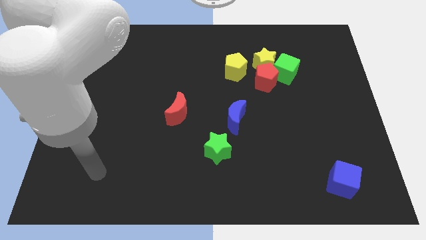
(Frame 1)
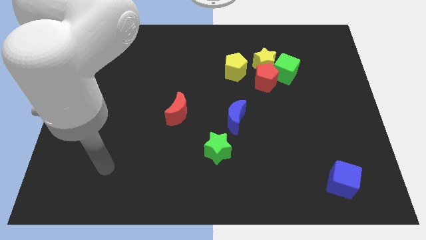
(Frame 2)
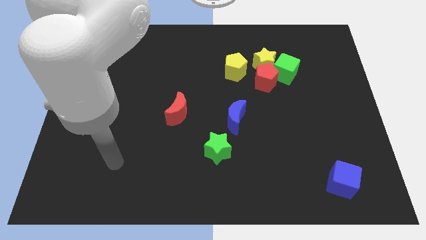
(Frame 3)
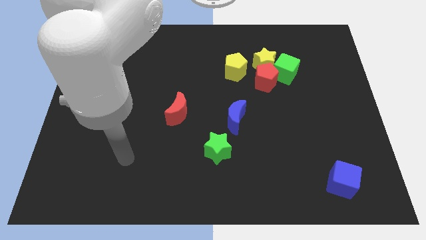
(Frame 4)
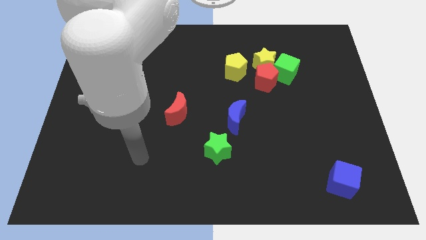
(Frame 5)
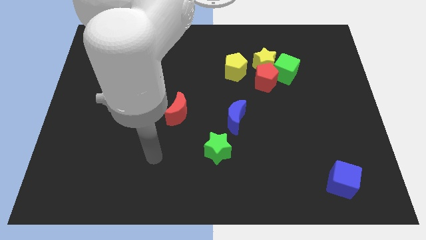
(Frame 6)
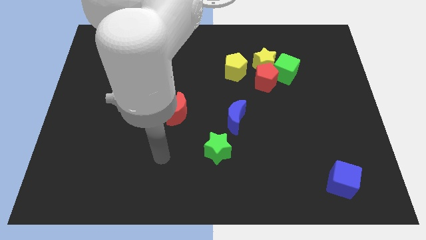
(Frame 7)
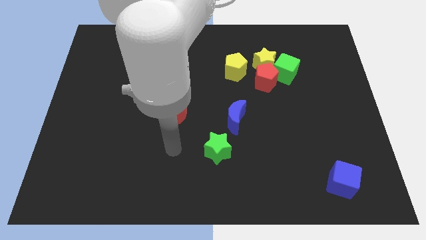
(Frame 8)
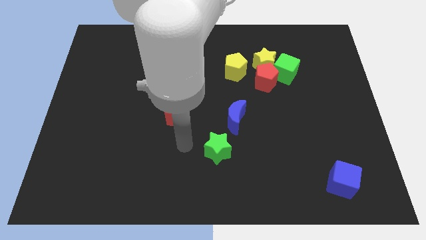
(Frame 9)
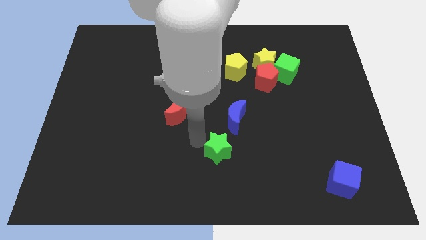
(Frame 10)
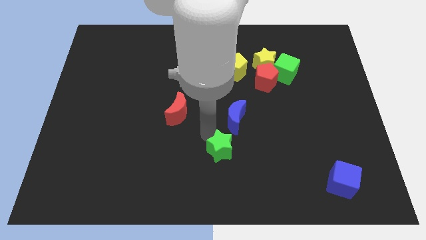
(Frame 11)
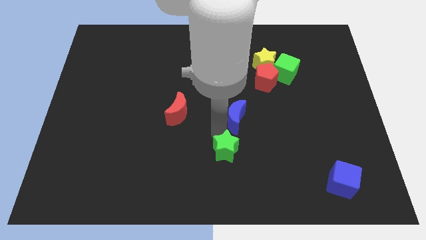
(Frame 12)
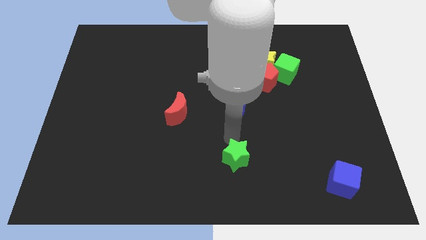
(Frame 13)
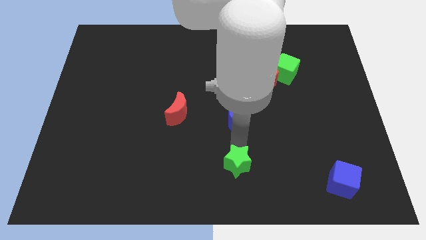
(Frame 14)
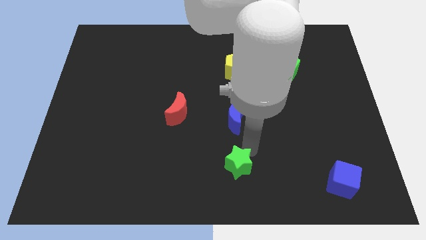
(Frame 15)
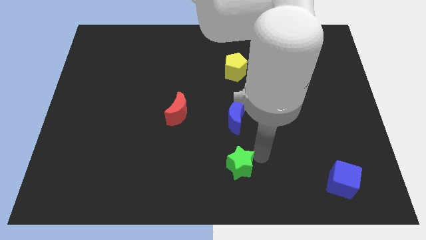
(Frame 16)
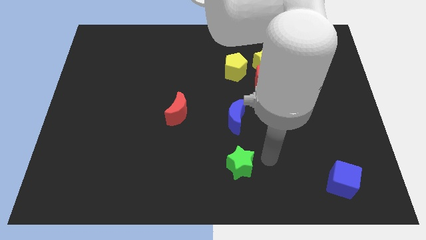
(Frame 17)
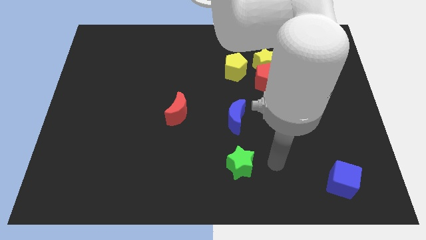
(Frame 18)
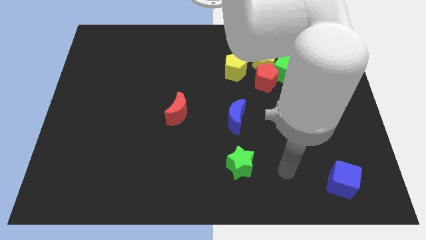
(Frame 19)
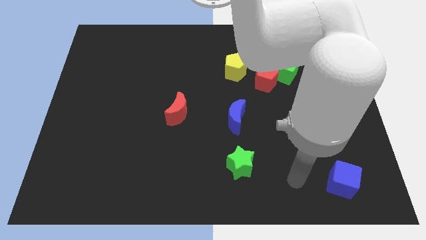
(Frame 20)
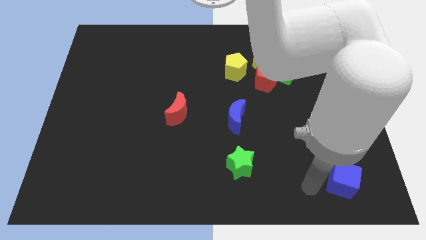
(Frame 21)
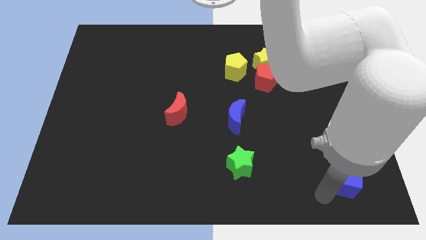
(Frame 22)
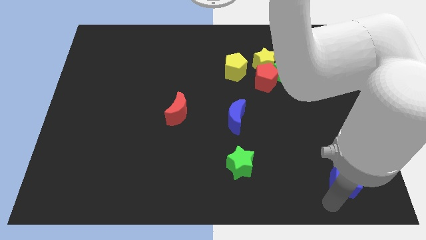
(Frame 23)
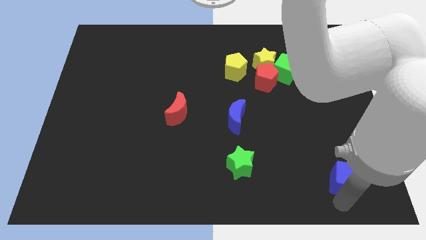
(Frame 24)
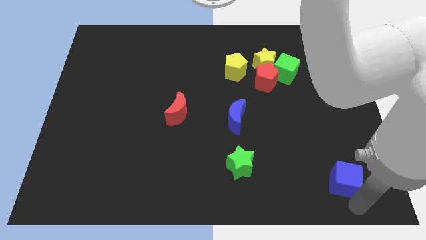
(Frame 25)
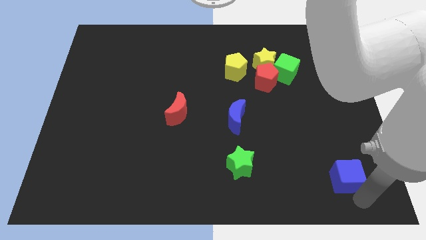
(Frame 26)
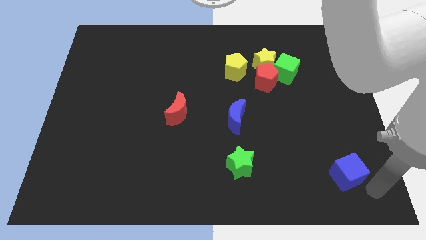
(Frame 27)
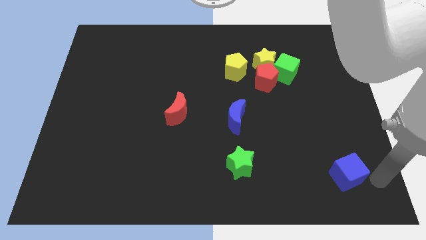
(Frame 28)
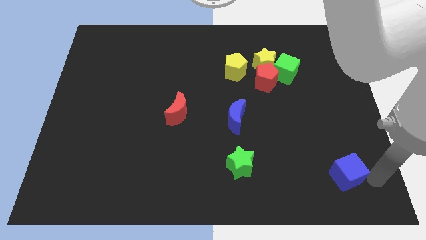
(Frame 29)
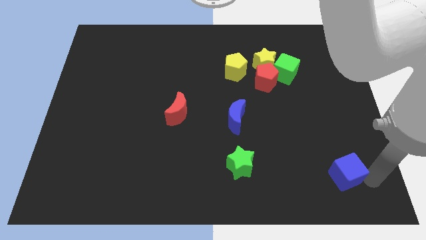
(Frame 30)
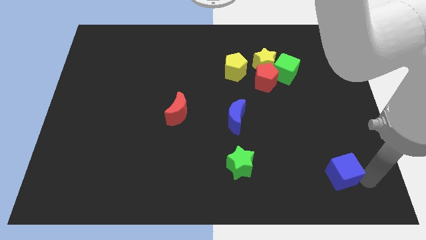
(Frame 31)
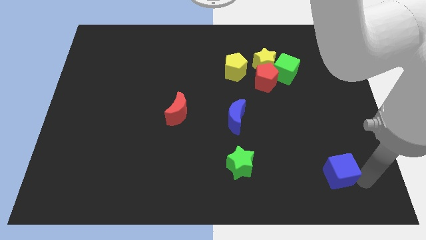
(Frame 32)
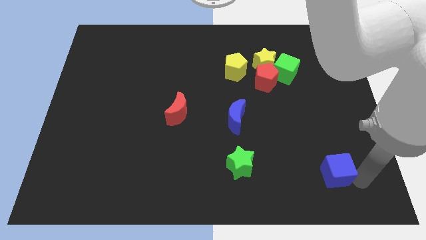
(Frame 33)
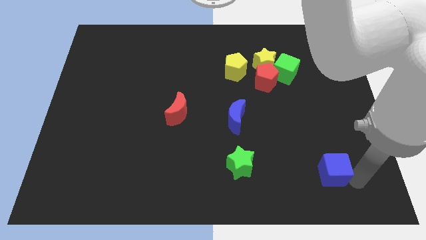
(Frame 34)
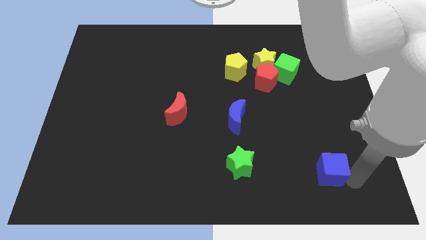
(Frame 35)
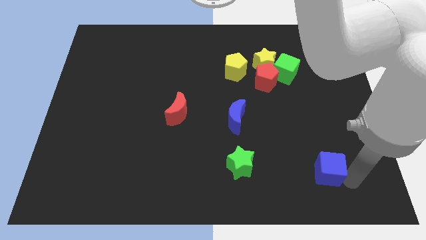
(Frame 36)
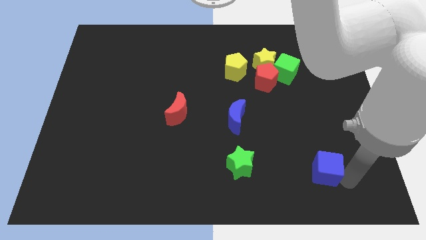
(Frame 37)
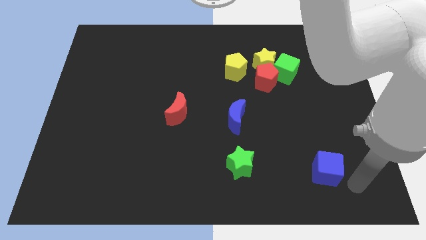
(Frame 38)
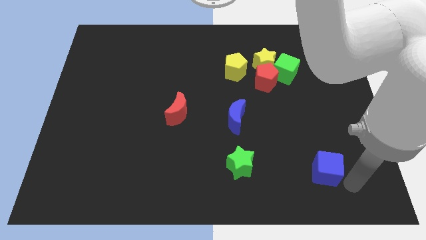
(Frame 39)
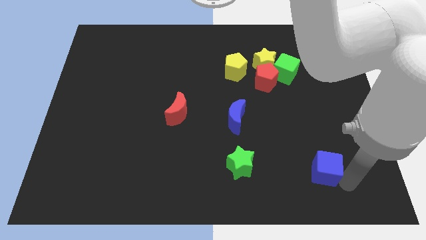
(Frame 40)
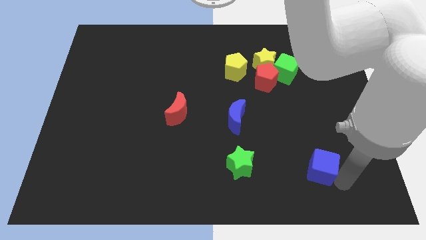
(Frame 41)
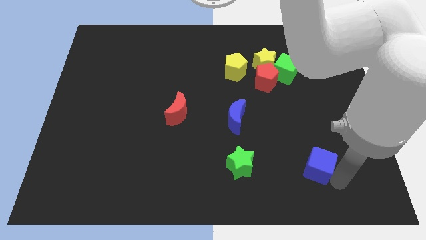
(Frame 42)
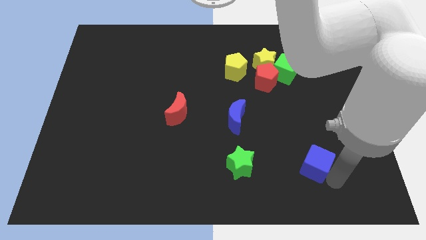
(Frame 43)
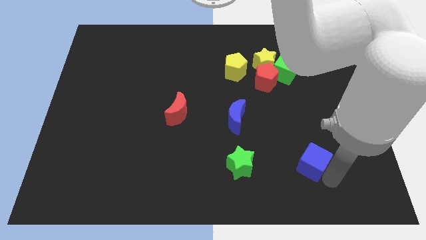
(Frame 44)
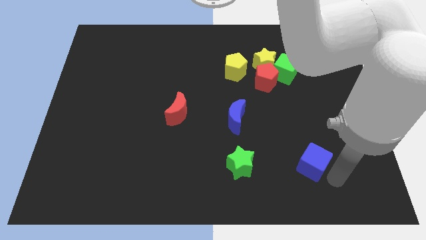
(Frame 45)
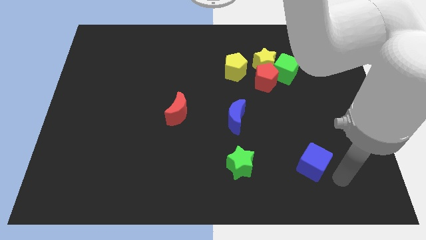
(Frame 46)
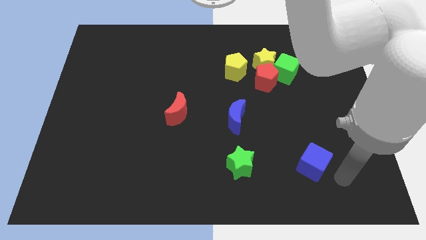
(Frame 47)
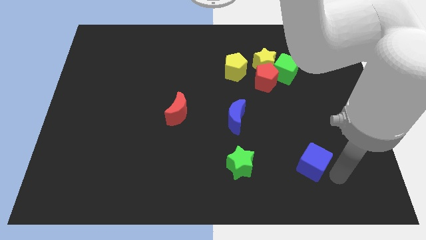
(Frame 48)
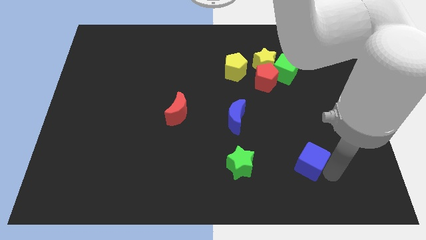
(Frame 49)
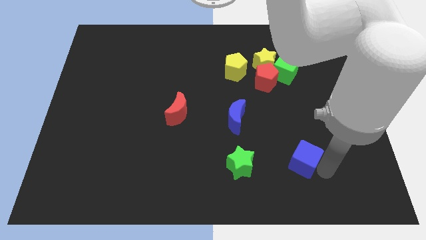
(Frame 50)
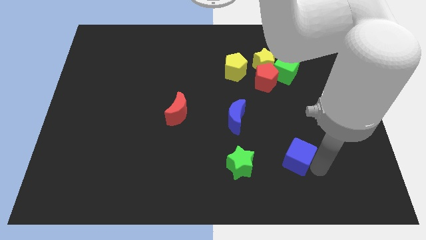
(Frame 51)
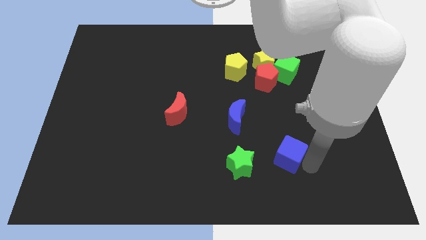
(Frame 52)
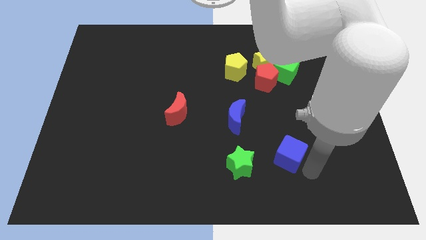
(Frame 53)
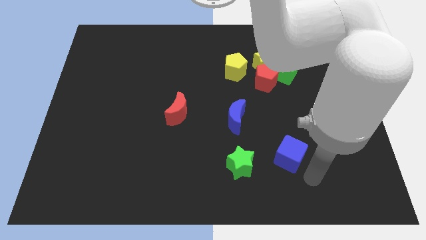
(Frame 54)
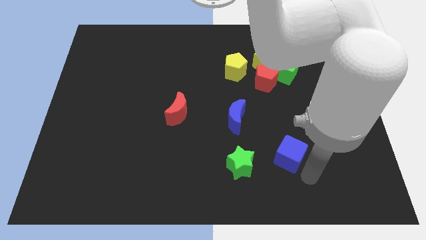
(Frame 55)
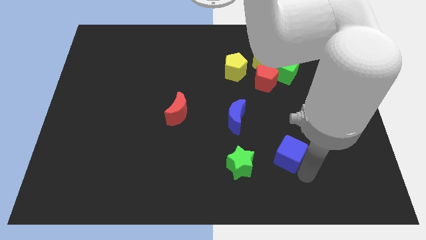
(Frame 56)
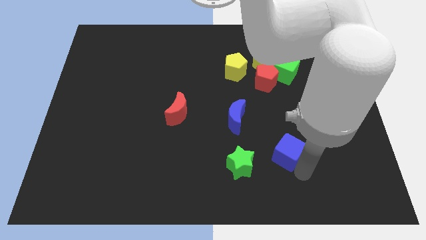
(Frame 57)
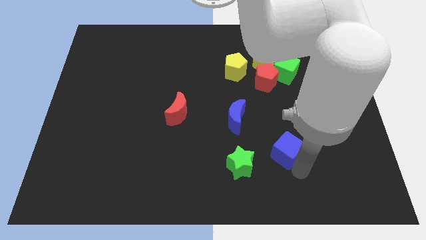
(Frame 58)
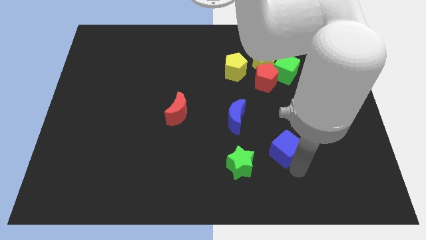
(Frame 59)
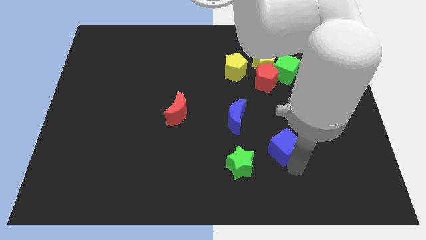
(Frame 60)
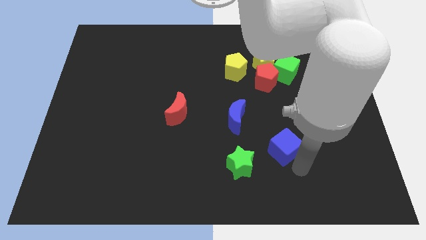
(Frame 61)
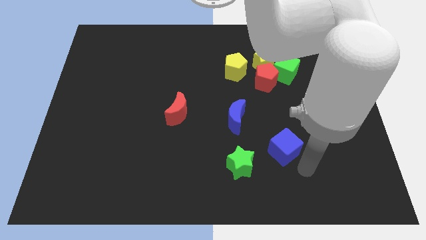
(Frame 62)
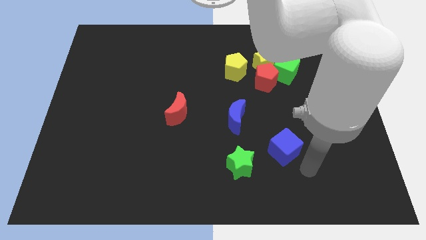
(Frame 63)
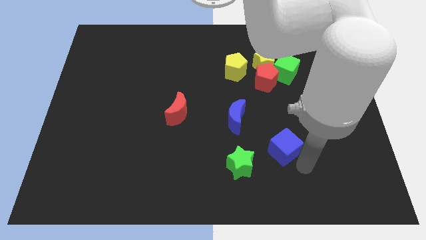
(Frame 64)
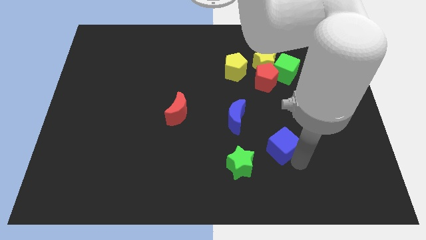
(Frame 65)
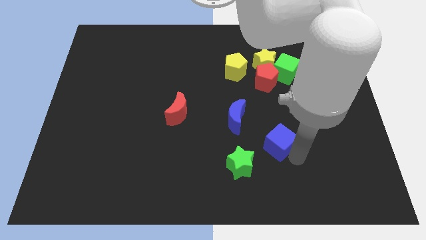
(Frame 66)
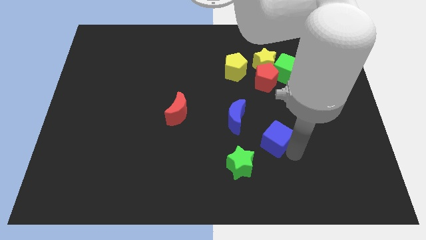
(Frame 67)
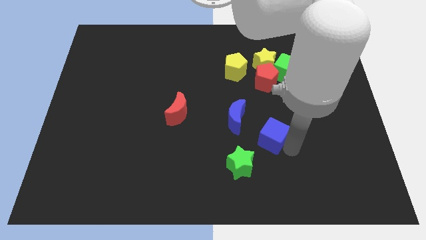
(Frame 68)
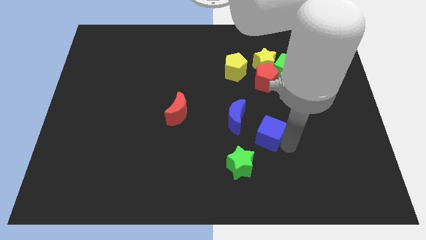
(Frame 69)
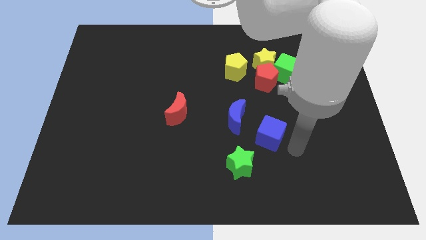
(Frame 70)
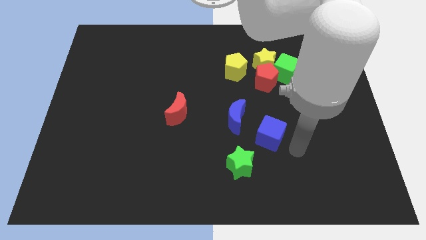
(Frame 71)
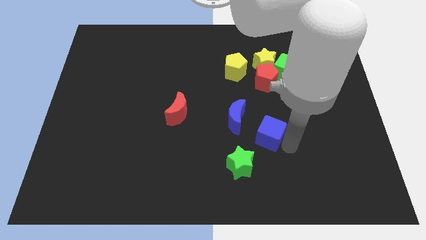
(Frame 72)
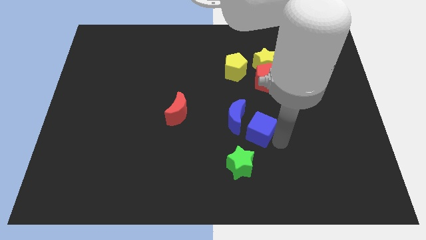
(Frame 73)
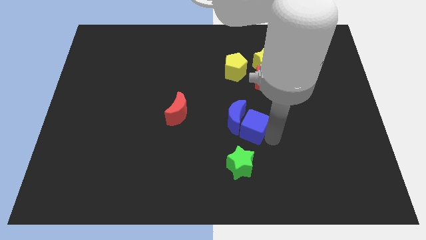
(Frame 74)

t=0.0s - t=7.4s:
move the blue cube next to the blue moon

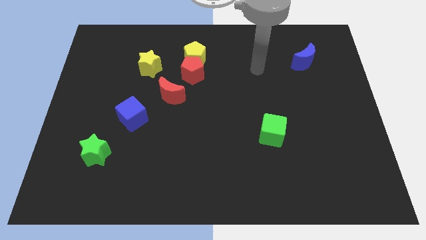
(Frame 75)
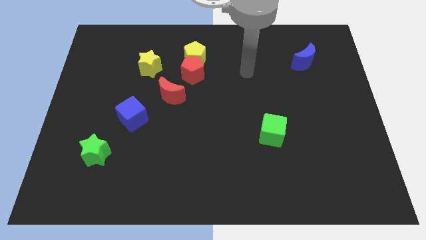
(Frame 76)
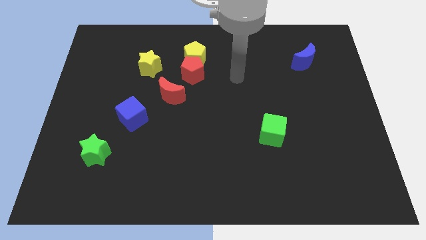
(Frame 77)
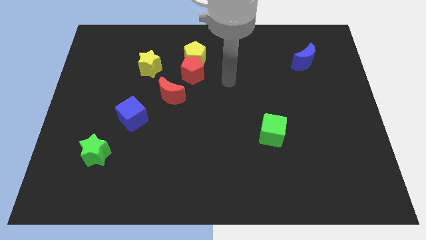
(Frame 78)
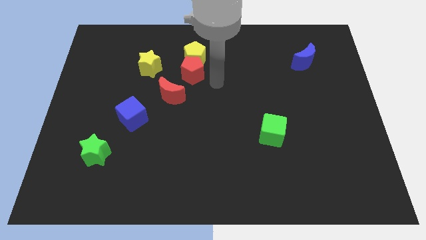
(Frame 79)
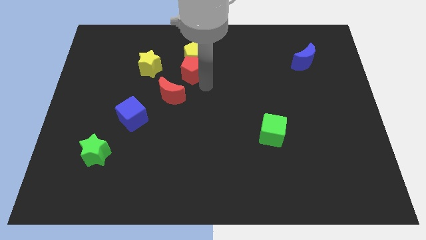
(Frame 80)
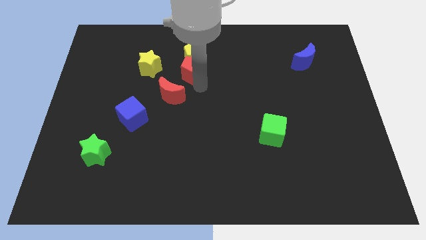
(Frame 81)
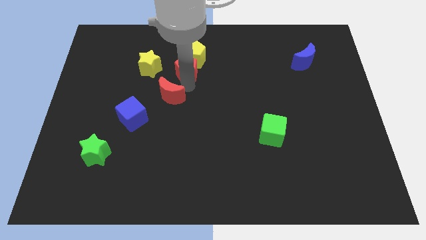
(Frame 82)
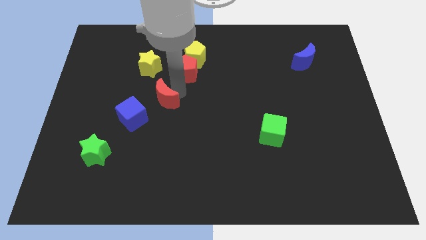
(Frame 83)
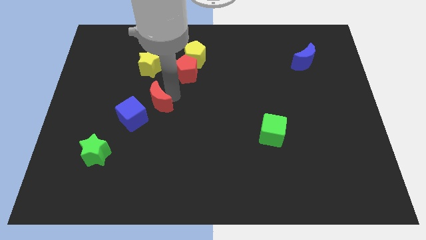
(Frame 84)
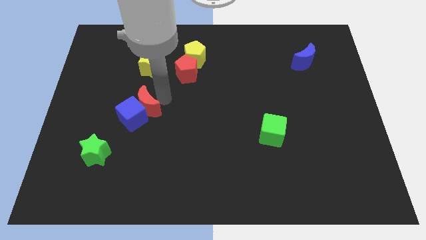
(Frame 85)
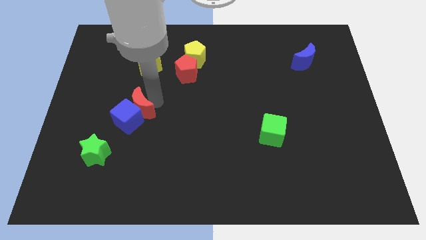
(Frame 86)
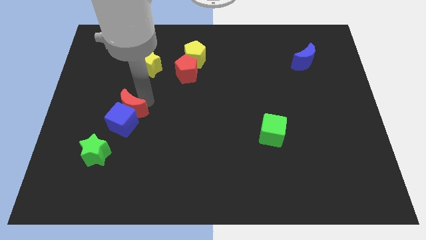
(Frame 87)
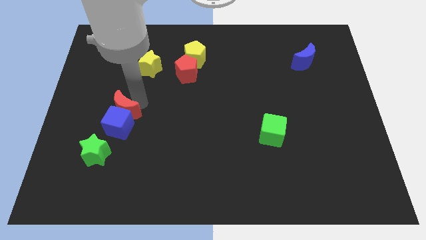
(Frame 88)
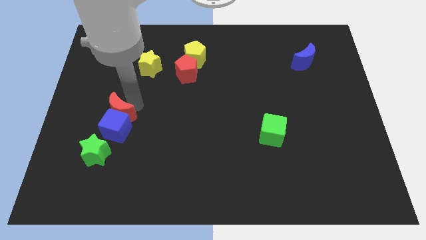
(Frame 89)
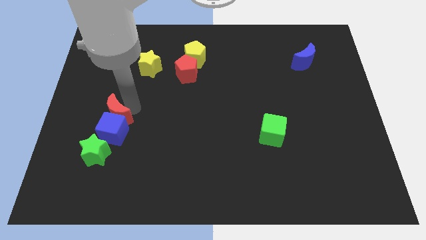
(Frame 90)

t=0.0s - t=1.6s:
move the blue cube next to the green star
